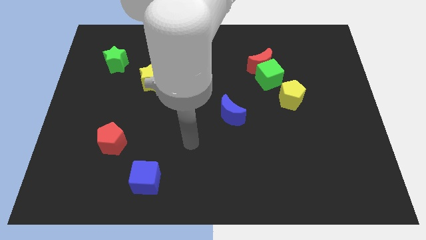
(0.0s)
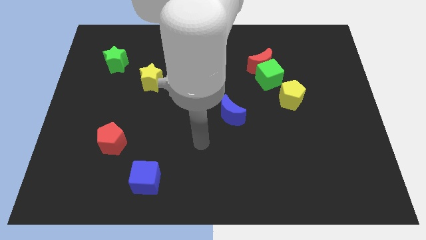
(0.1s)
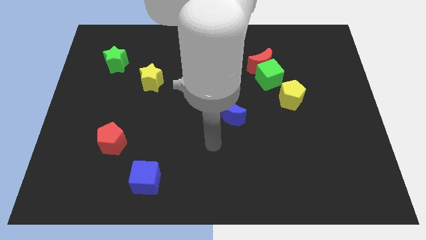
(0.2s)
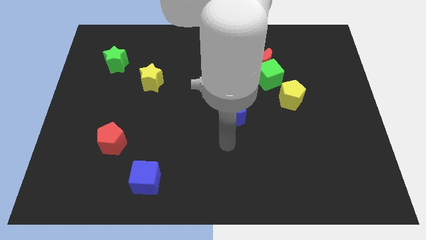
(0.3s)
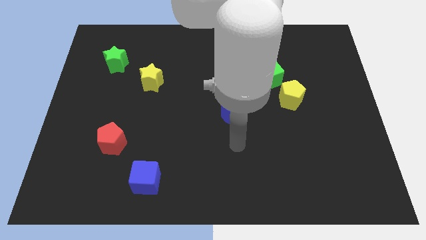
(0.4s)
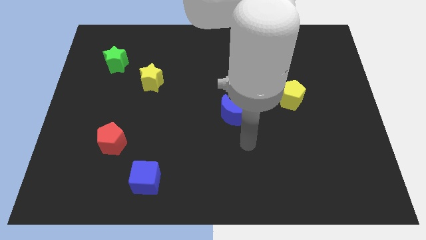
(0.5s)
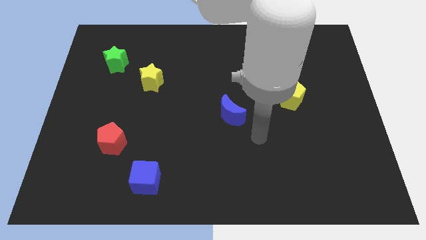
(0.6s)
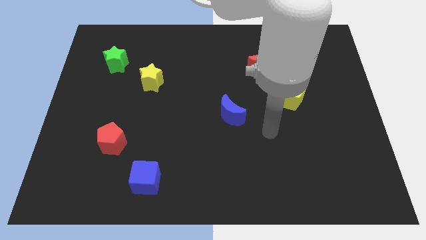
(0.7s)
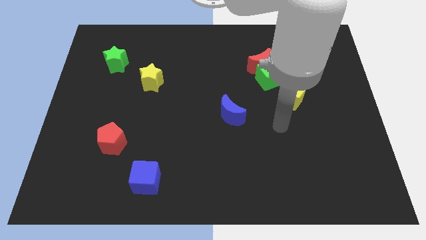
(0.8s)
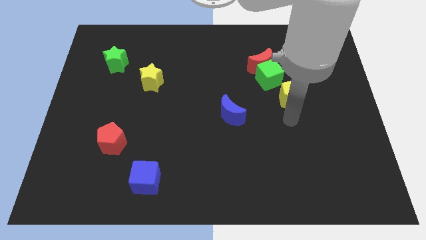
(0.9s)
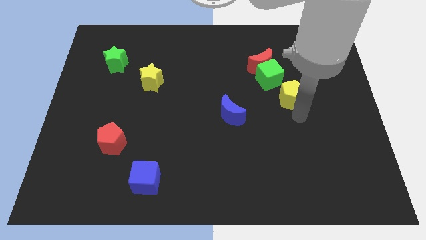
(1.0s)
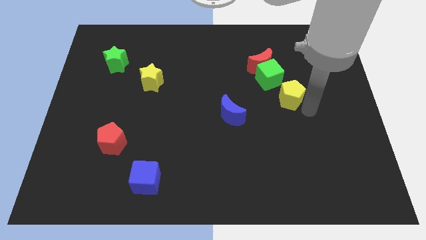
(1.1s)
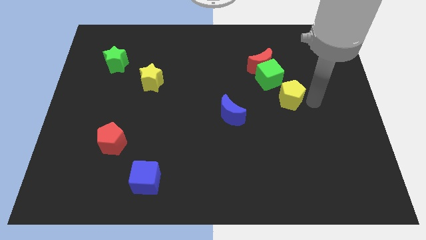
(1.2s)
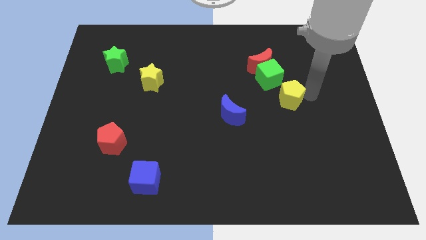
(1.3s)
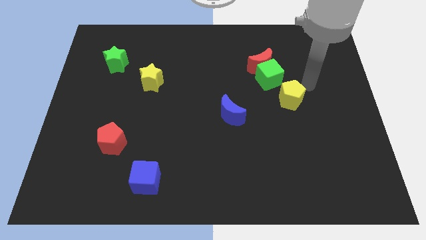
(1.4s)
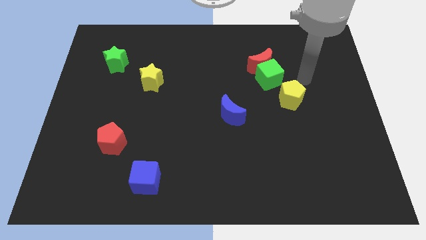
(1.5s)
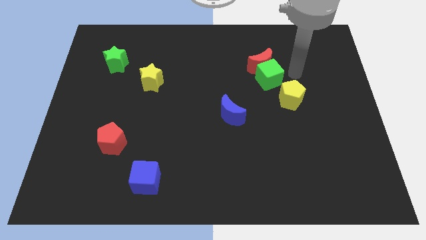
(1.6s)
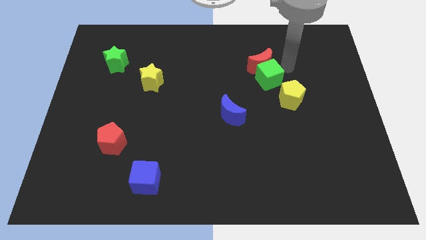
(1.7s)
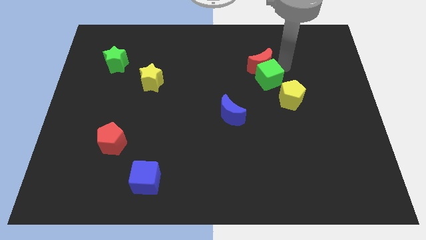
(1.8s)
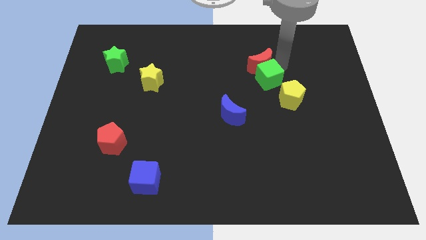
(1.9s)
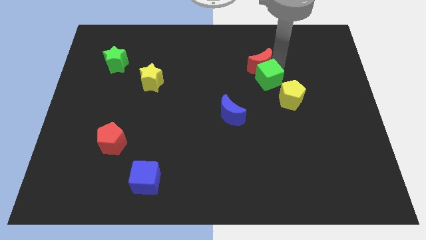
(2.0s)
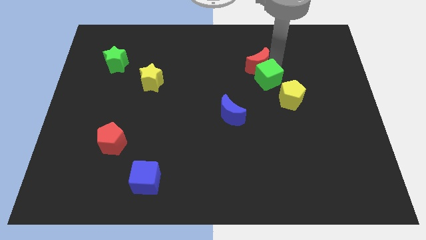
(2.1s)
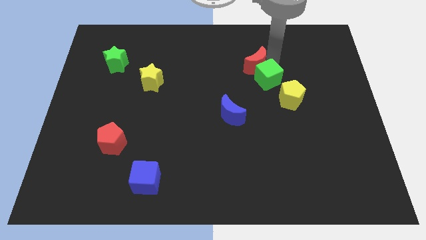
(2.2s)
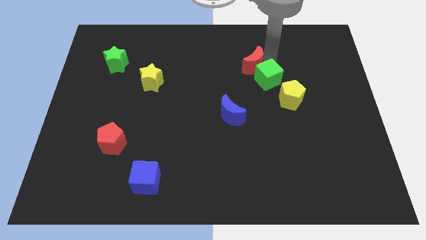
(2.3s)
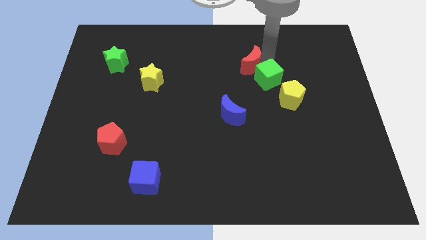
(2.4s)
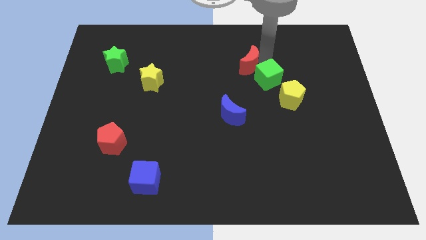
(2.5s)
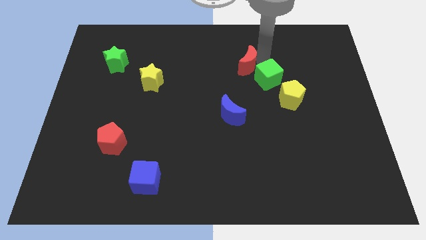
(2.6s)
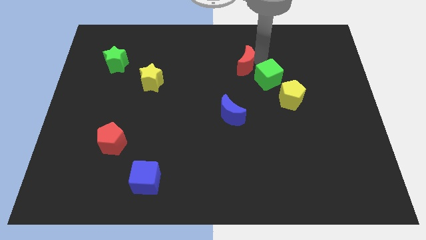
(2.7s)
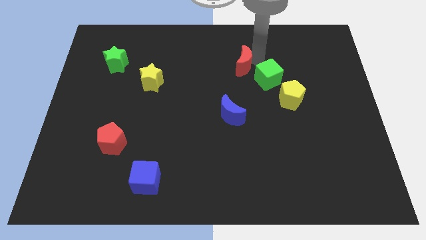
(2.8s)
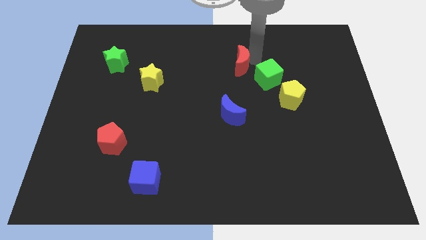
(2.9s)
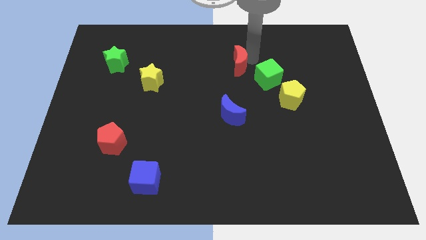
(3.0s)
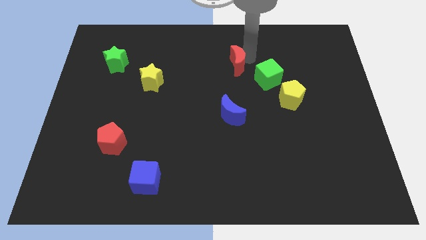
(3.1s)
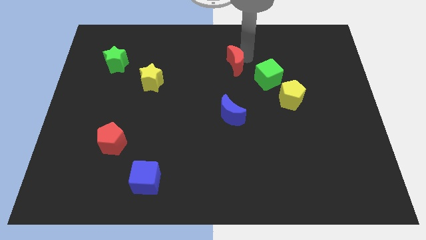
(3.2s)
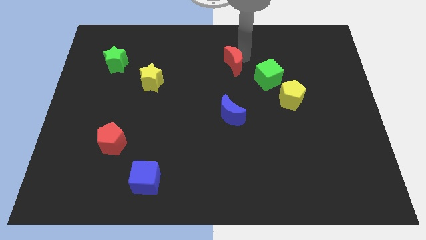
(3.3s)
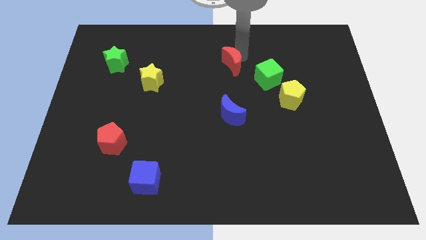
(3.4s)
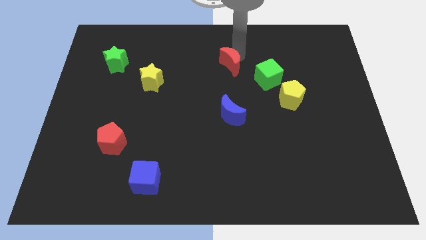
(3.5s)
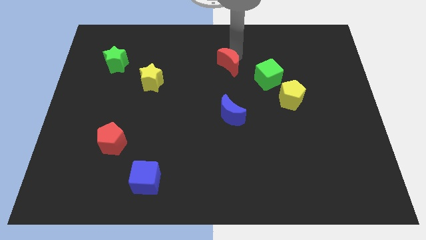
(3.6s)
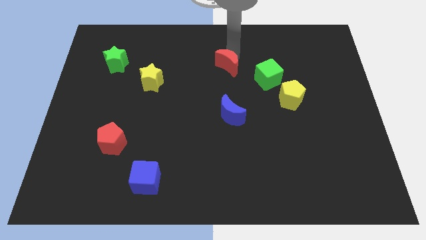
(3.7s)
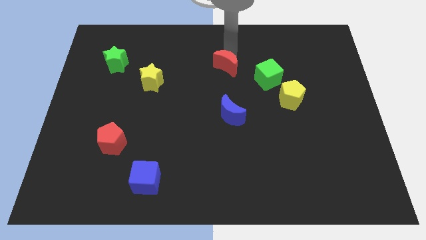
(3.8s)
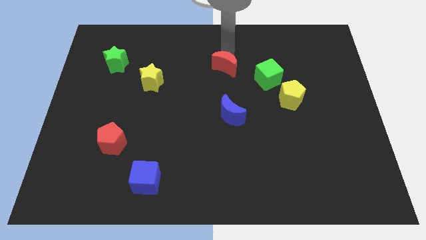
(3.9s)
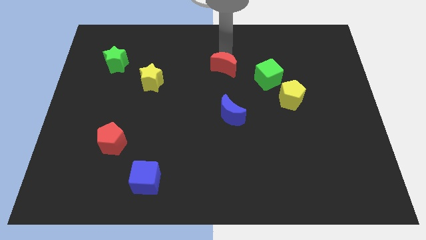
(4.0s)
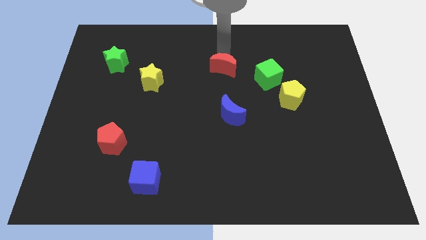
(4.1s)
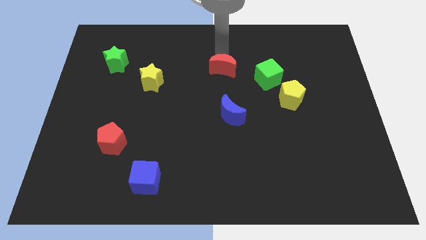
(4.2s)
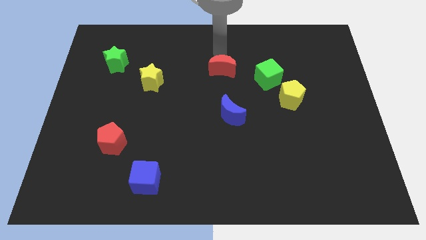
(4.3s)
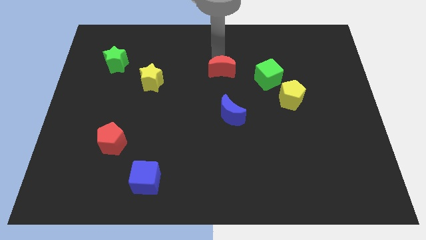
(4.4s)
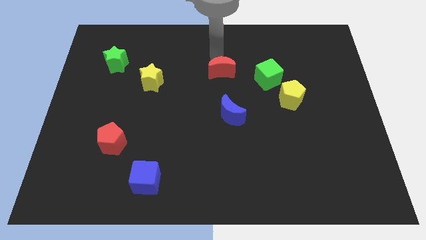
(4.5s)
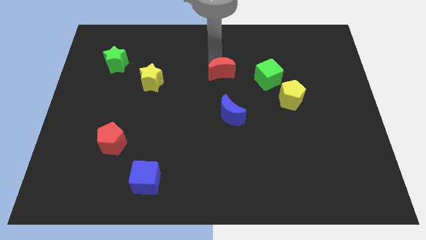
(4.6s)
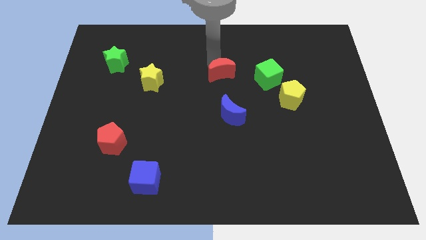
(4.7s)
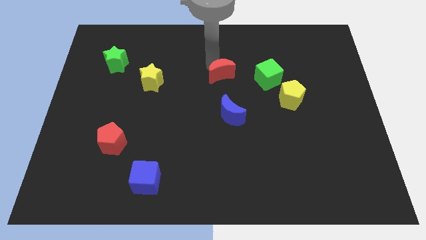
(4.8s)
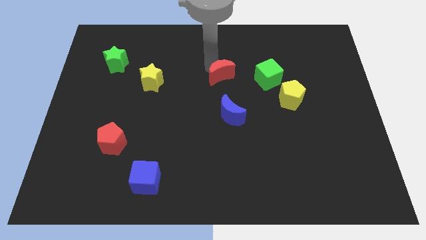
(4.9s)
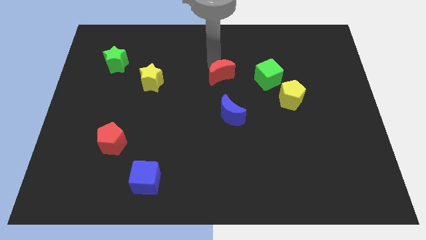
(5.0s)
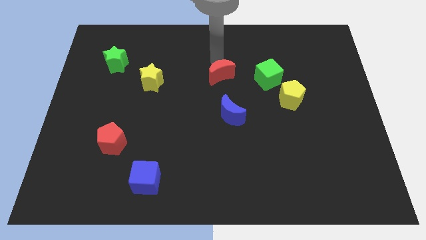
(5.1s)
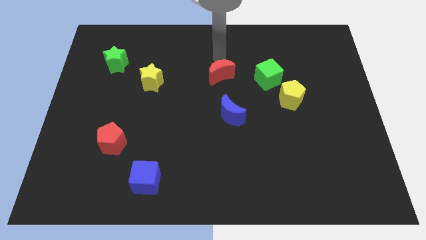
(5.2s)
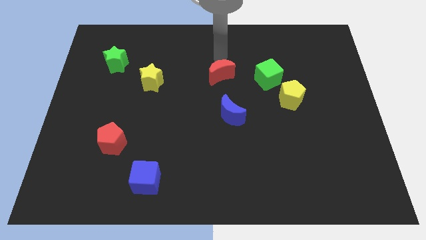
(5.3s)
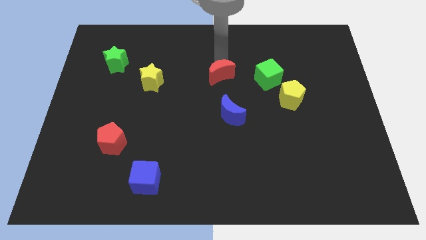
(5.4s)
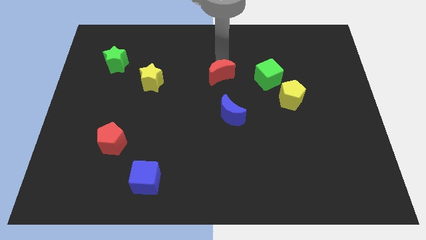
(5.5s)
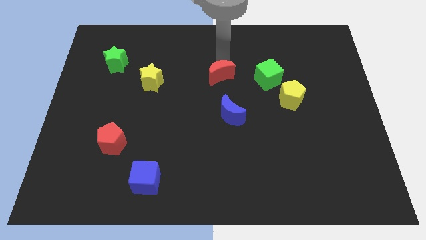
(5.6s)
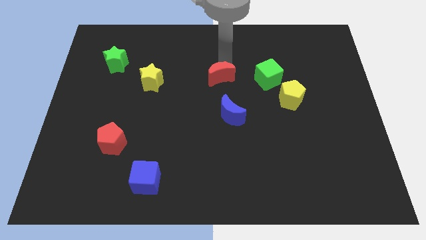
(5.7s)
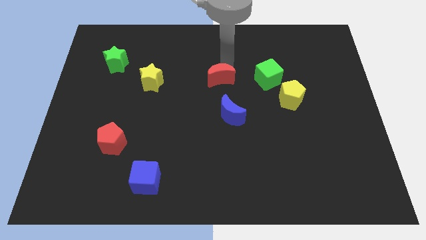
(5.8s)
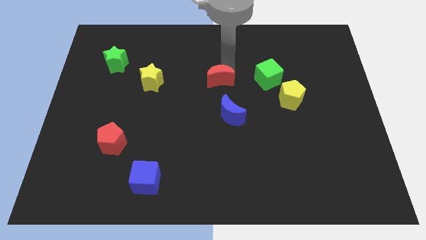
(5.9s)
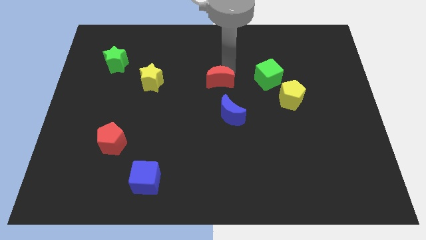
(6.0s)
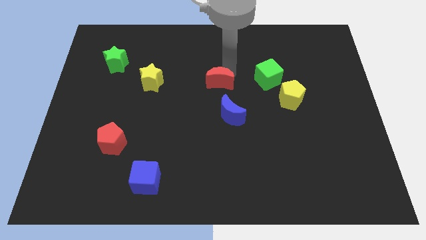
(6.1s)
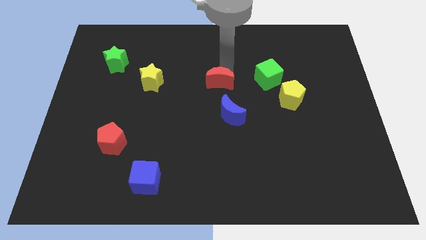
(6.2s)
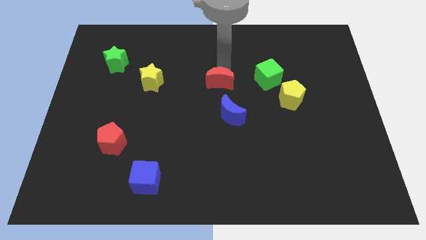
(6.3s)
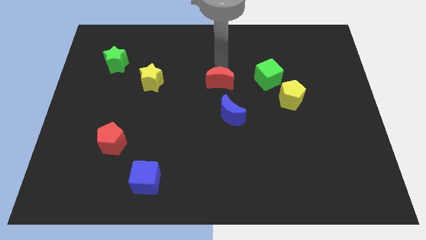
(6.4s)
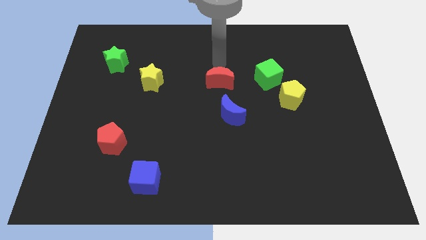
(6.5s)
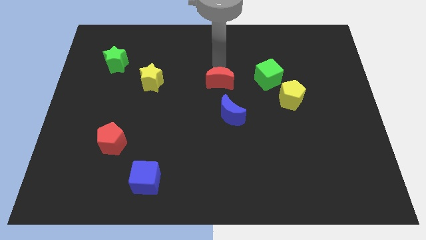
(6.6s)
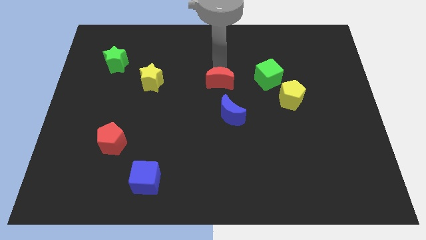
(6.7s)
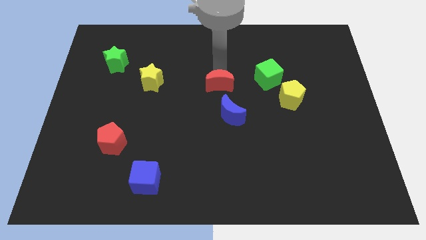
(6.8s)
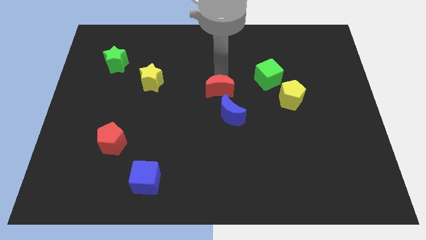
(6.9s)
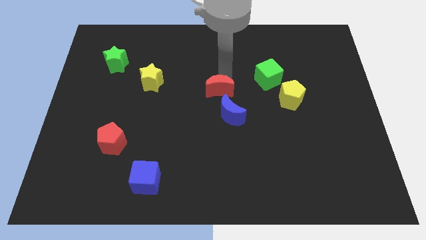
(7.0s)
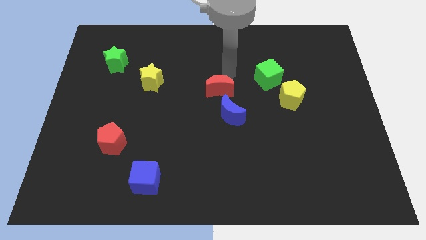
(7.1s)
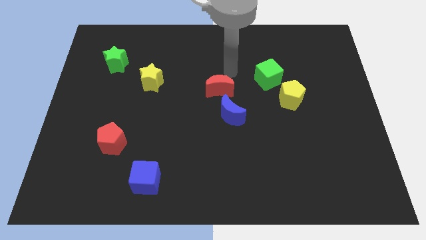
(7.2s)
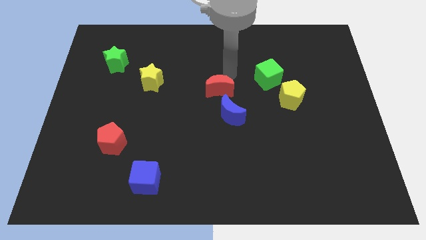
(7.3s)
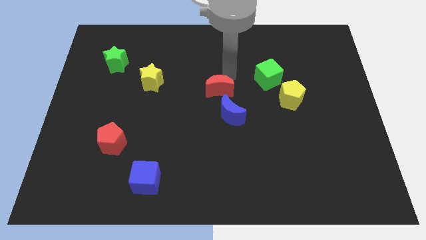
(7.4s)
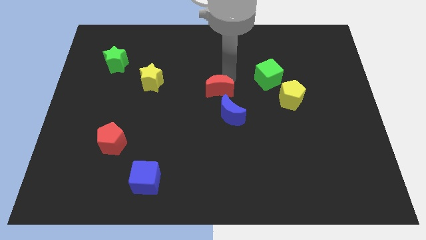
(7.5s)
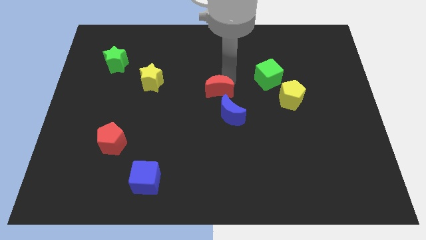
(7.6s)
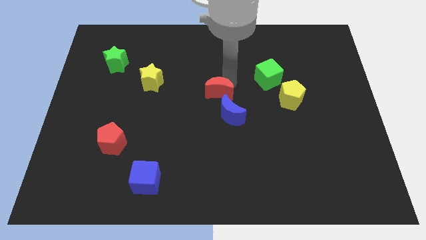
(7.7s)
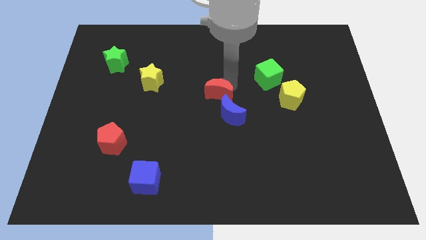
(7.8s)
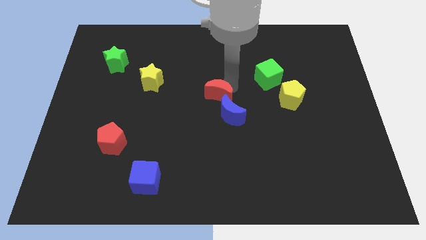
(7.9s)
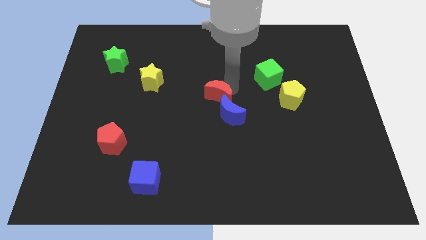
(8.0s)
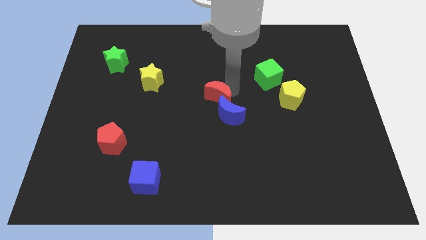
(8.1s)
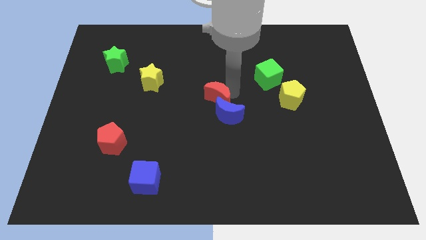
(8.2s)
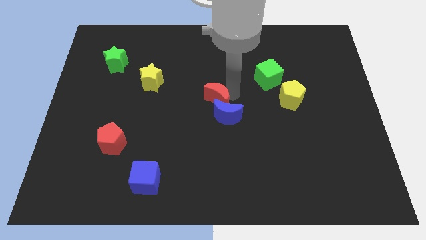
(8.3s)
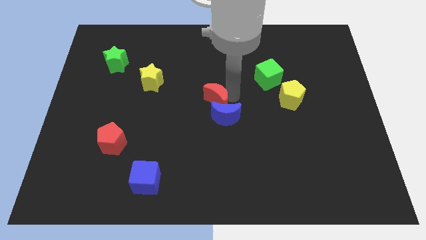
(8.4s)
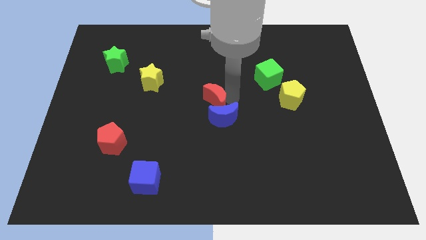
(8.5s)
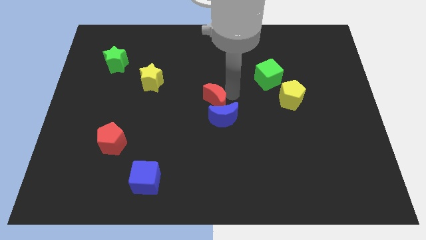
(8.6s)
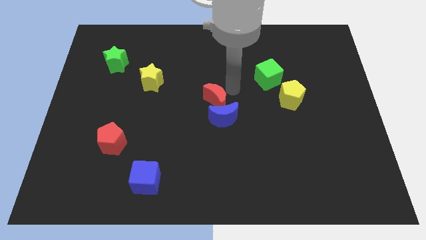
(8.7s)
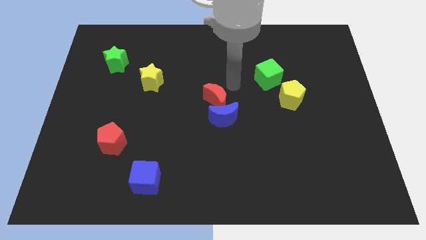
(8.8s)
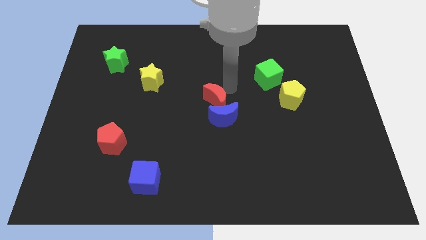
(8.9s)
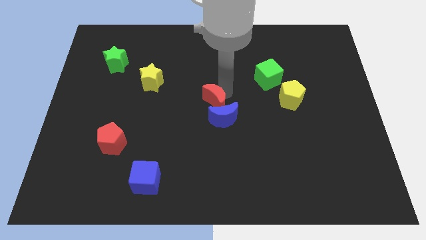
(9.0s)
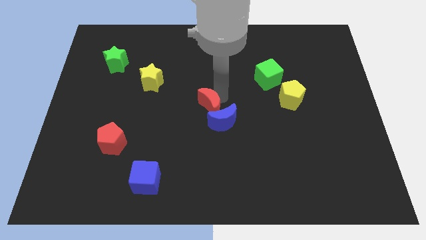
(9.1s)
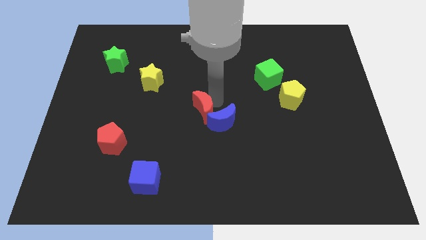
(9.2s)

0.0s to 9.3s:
push the red moon downwards and then to the left
